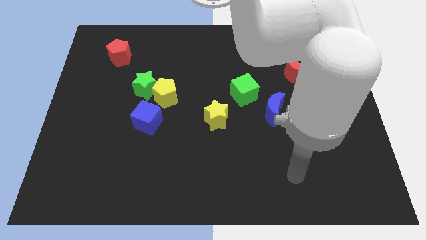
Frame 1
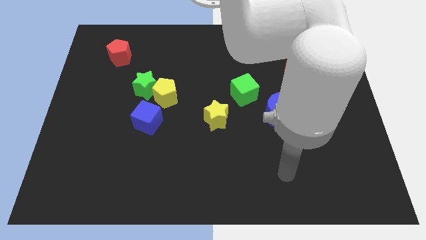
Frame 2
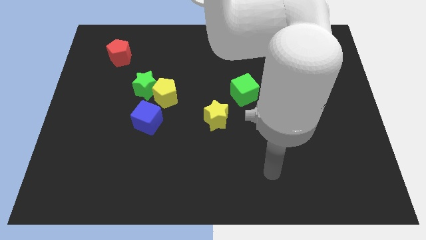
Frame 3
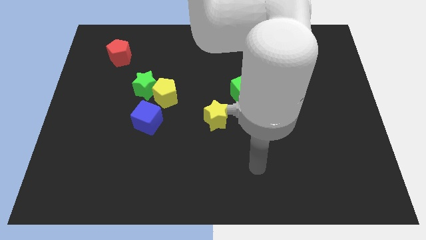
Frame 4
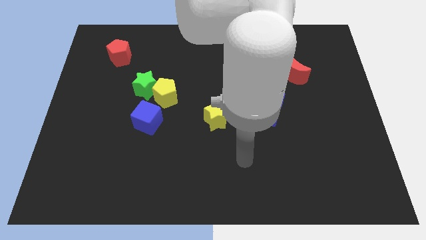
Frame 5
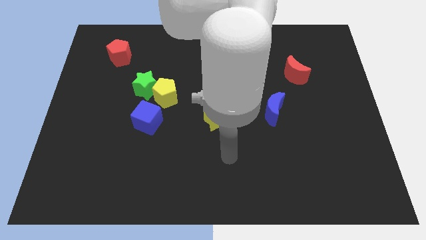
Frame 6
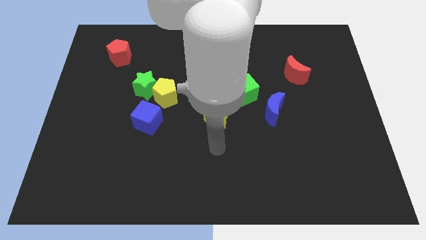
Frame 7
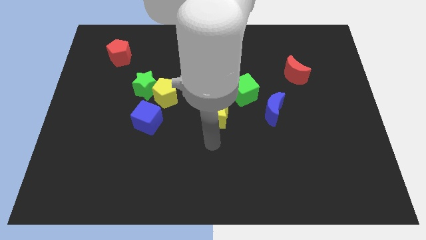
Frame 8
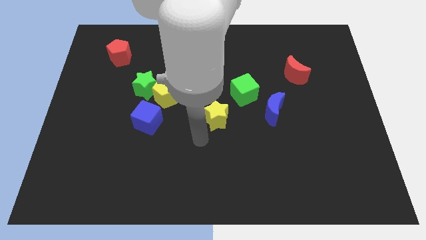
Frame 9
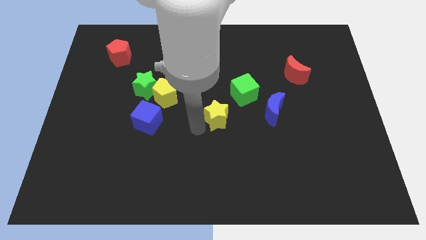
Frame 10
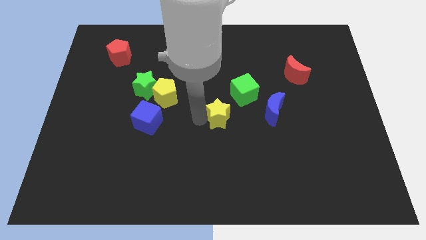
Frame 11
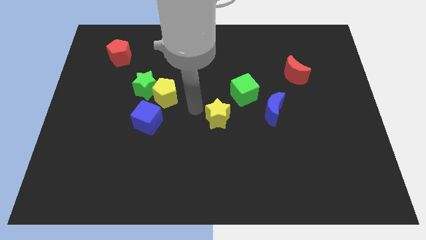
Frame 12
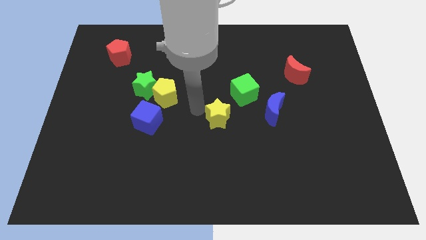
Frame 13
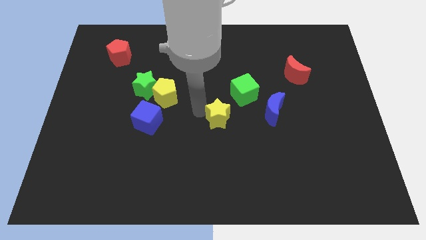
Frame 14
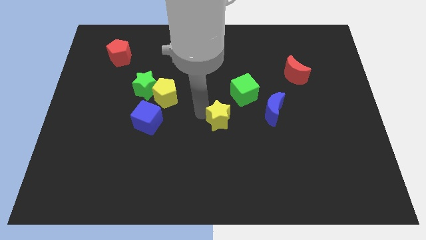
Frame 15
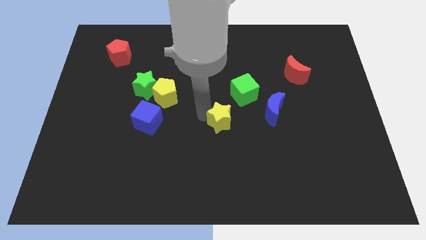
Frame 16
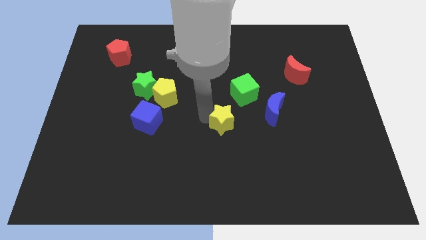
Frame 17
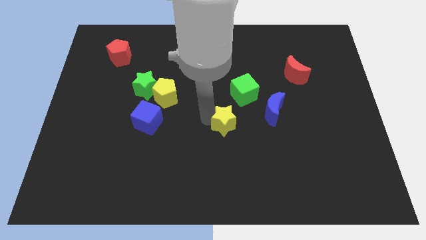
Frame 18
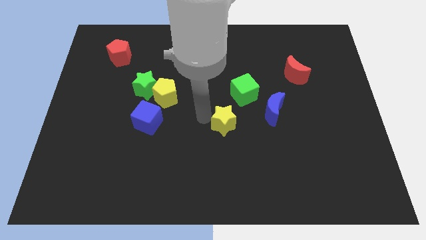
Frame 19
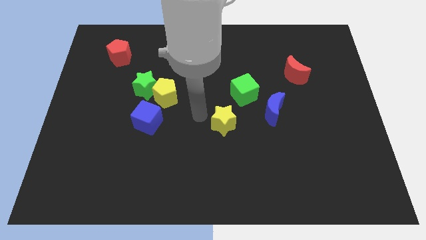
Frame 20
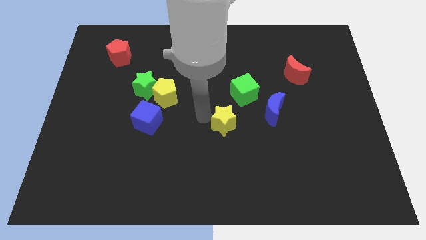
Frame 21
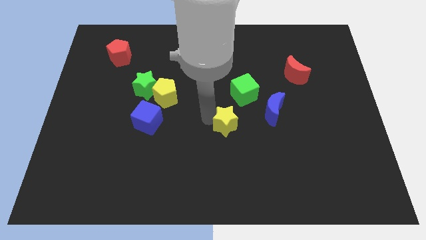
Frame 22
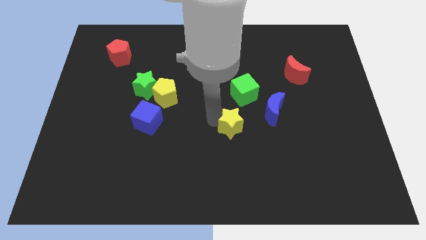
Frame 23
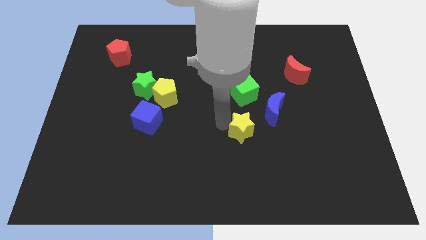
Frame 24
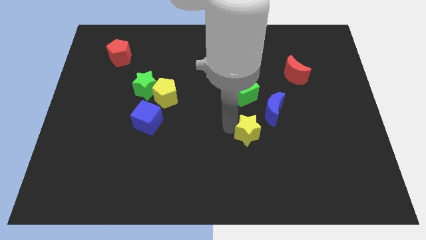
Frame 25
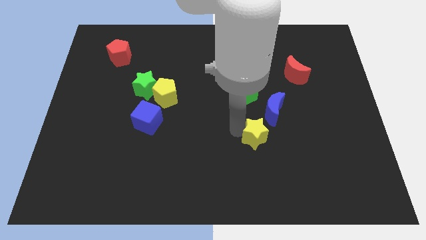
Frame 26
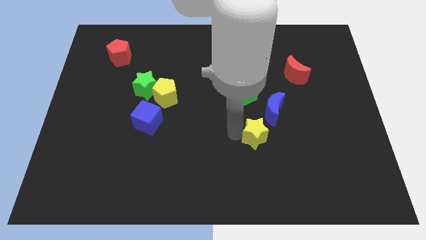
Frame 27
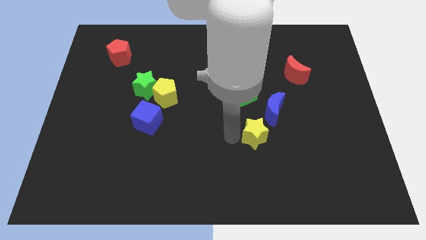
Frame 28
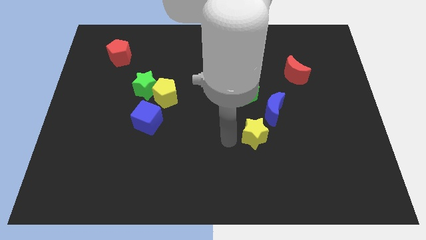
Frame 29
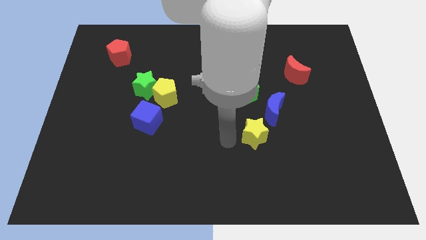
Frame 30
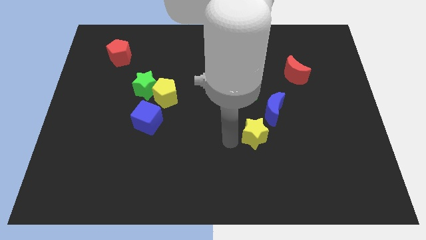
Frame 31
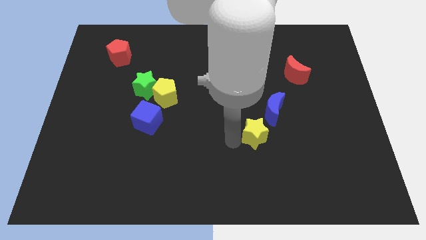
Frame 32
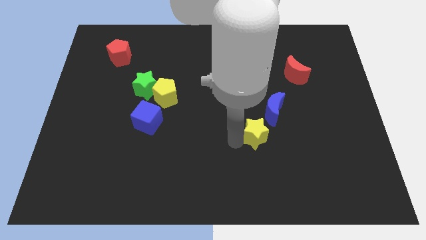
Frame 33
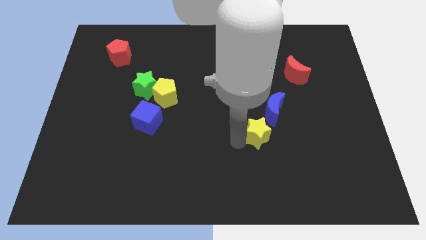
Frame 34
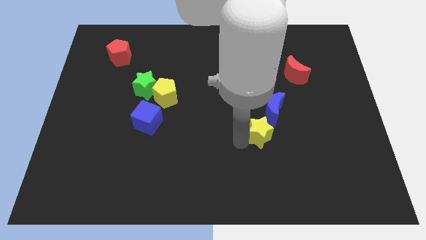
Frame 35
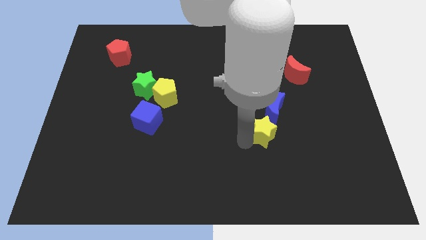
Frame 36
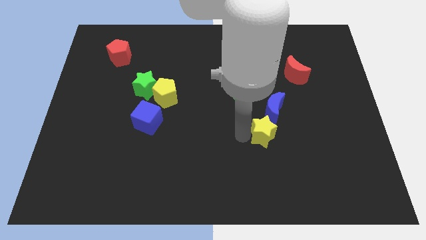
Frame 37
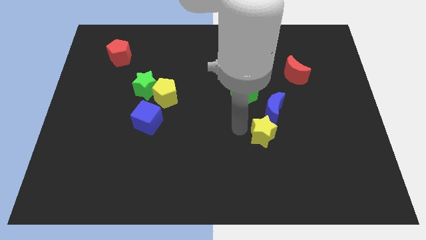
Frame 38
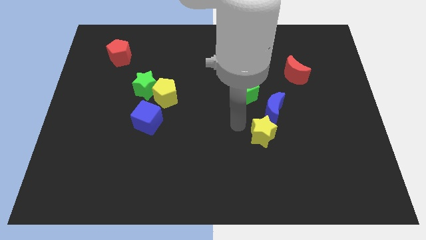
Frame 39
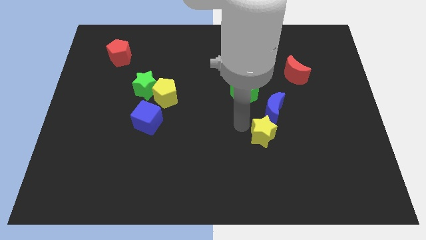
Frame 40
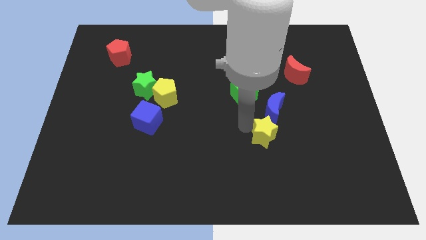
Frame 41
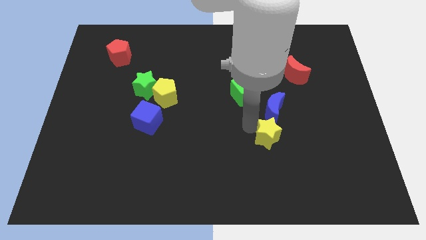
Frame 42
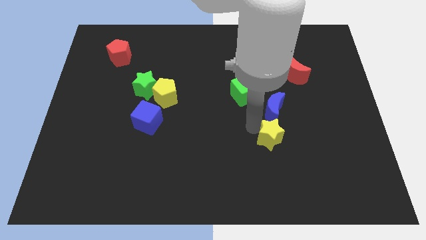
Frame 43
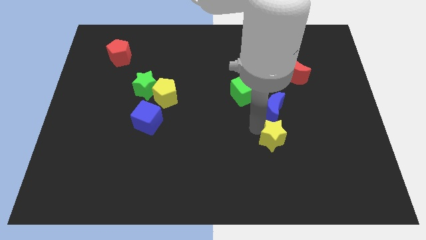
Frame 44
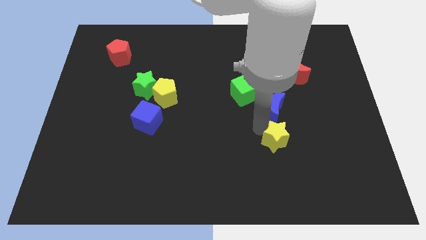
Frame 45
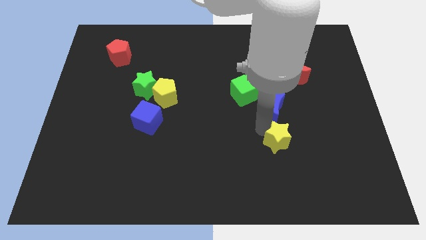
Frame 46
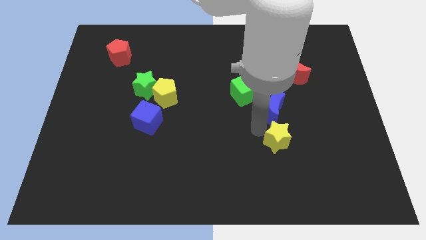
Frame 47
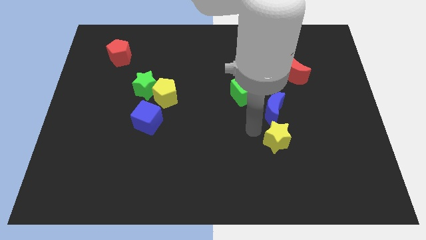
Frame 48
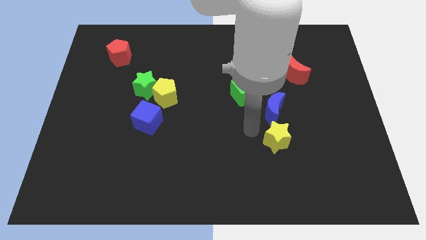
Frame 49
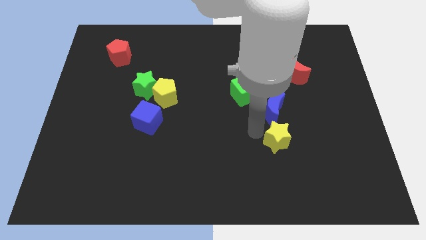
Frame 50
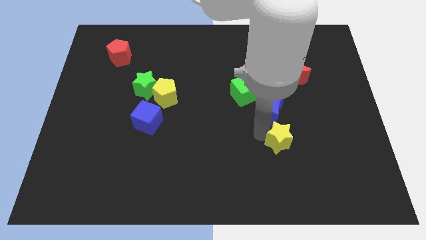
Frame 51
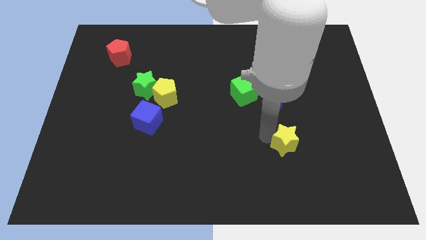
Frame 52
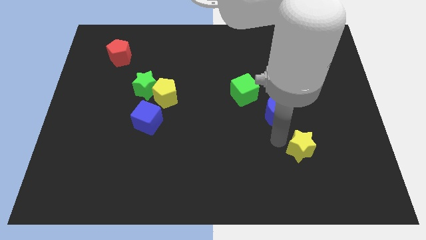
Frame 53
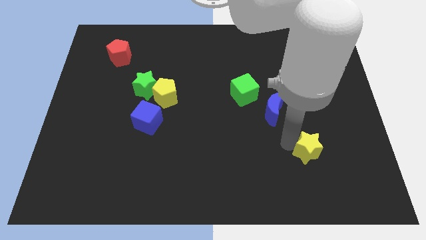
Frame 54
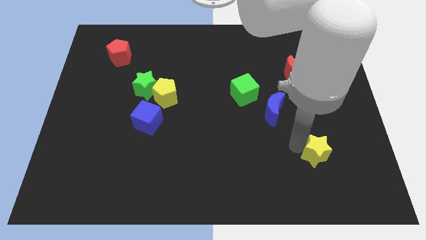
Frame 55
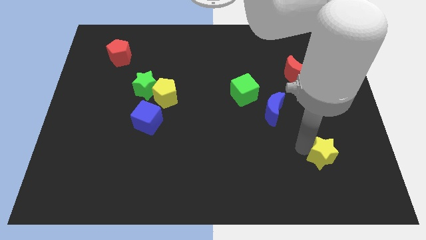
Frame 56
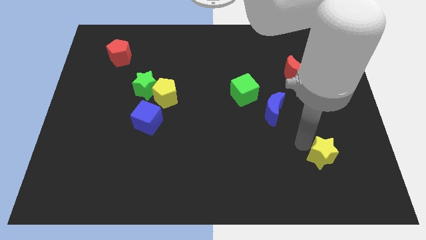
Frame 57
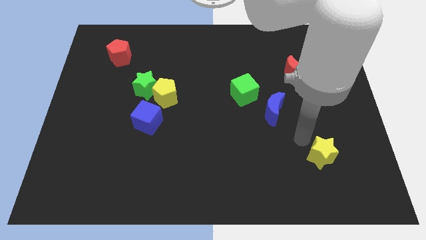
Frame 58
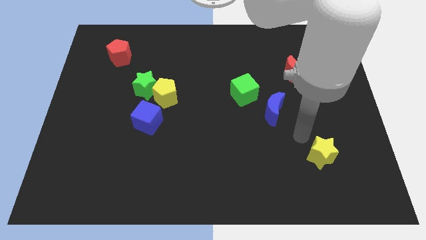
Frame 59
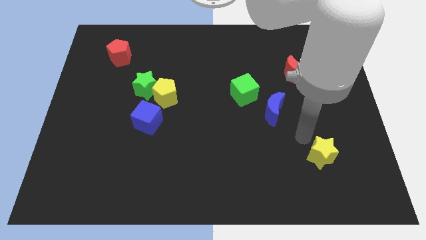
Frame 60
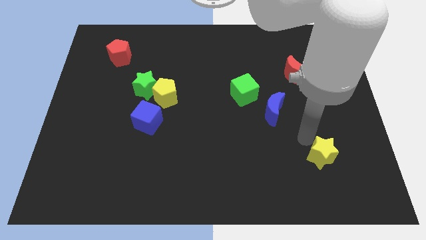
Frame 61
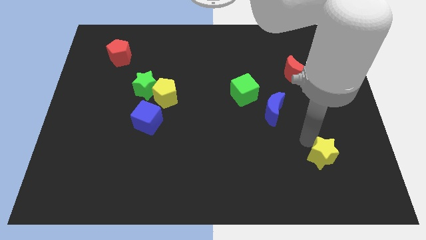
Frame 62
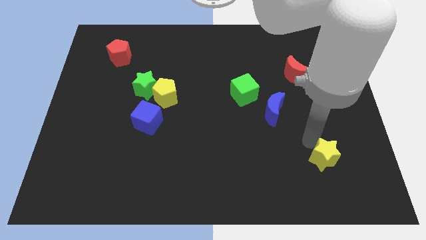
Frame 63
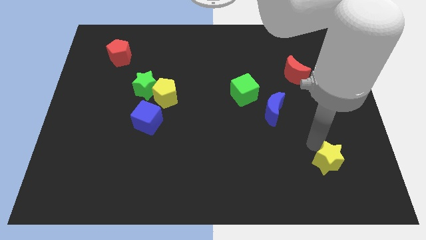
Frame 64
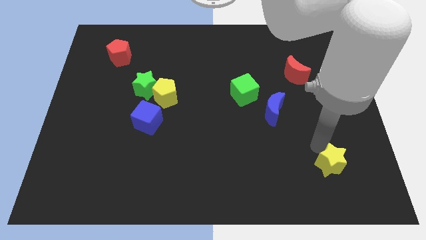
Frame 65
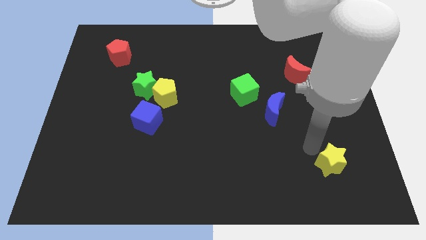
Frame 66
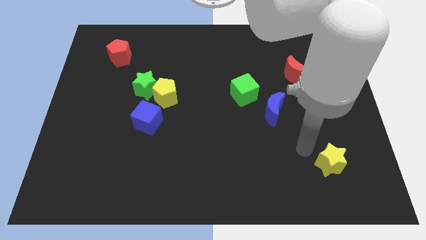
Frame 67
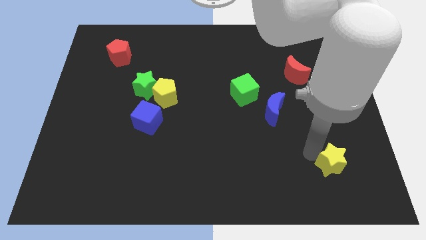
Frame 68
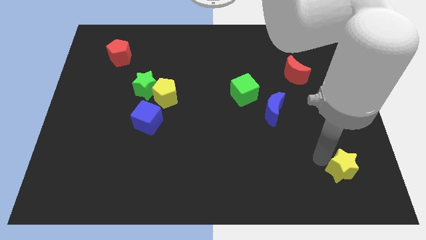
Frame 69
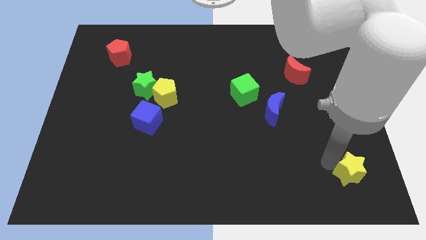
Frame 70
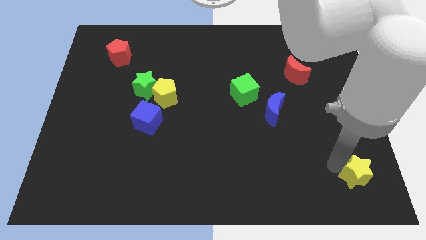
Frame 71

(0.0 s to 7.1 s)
put the yellow star to the bottom right

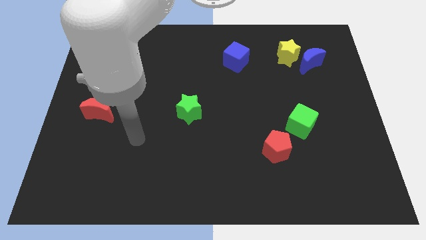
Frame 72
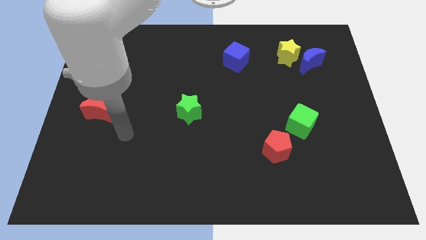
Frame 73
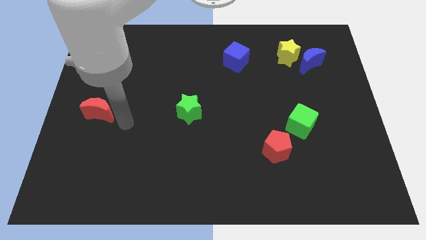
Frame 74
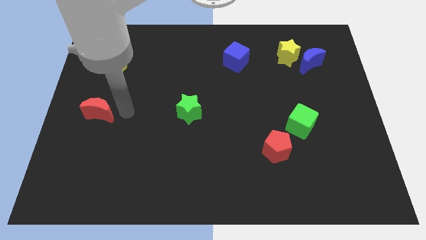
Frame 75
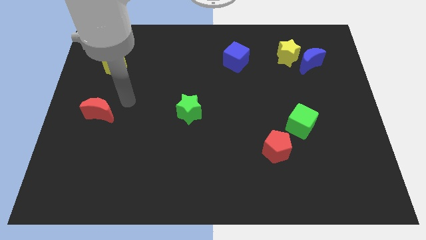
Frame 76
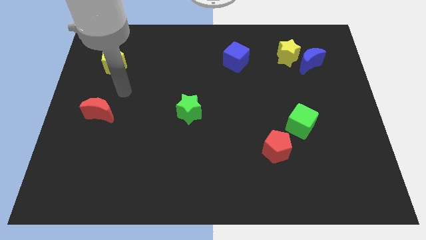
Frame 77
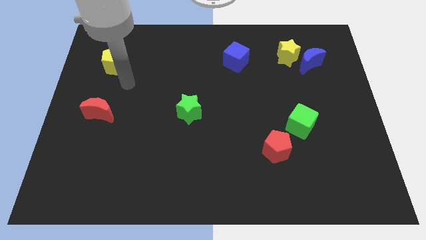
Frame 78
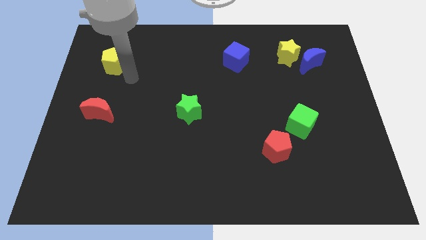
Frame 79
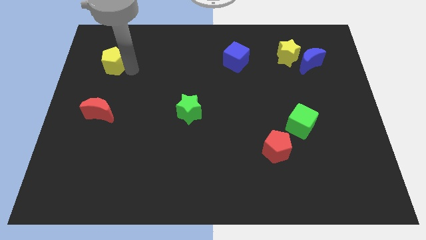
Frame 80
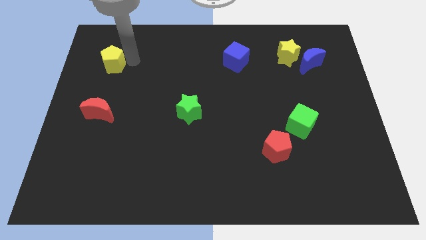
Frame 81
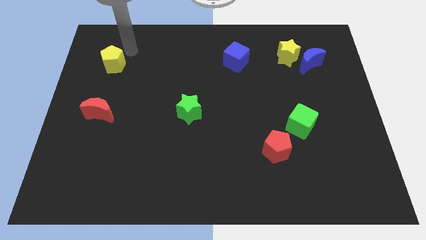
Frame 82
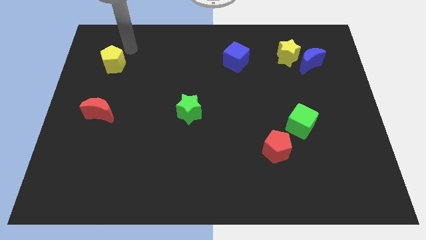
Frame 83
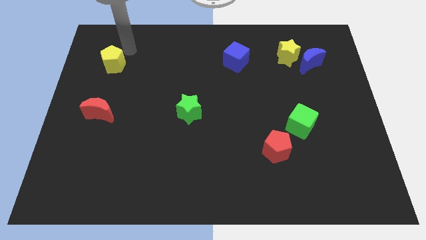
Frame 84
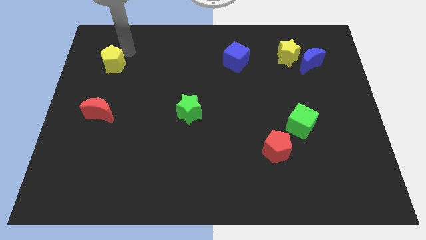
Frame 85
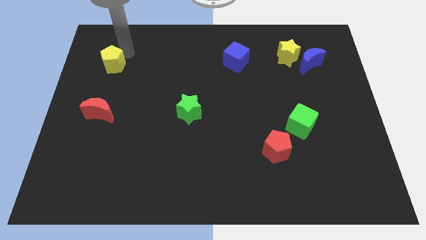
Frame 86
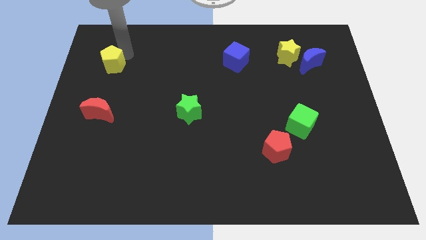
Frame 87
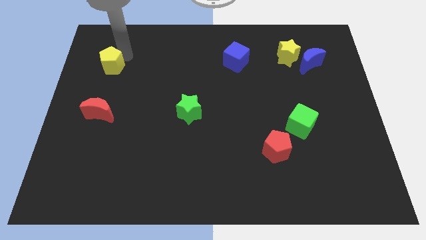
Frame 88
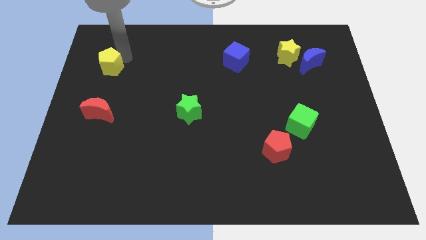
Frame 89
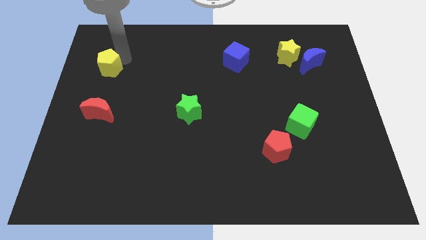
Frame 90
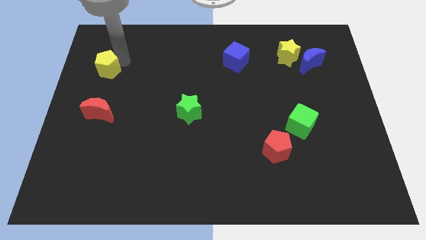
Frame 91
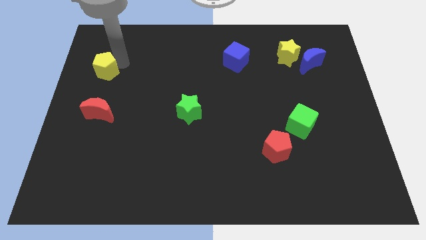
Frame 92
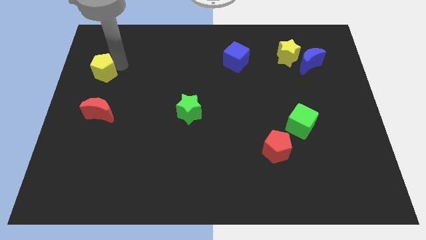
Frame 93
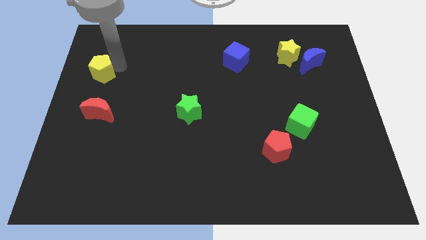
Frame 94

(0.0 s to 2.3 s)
push the yellow pentagon to the left side
